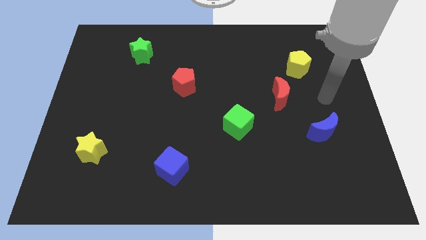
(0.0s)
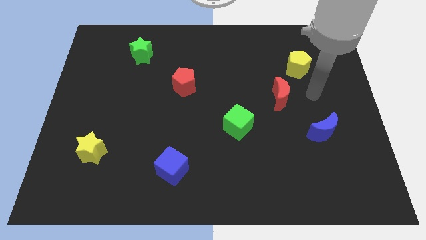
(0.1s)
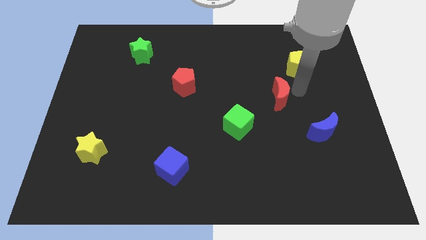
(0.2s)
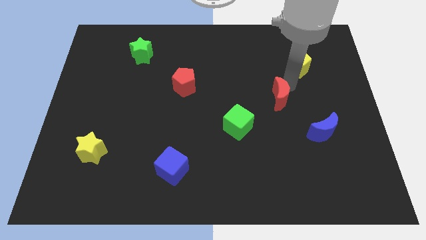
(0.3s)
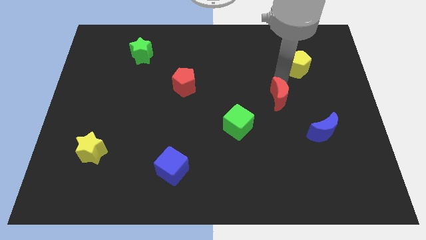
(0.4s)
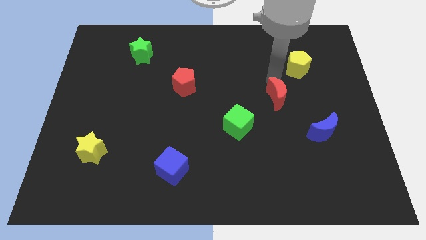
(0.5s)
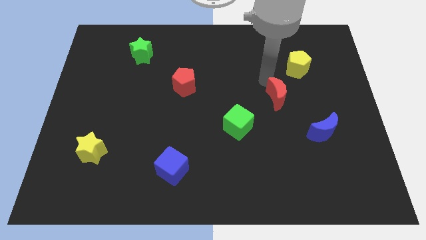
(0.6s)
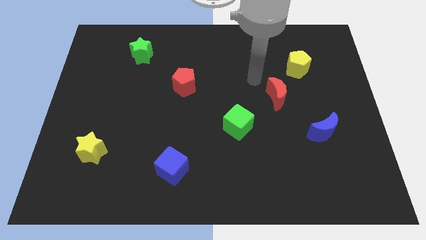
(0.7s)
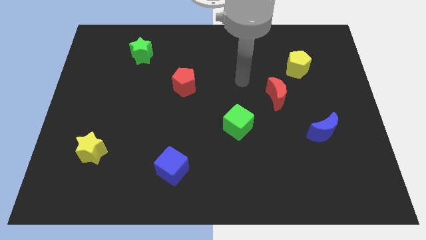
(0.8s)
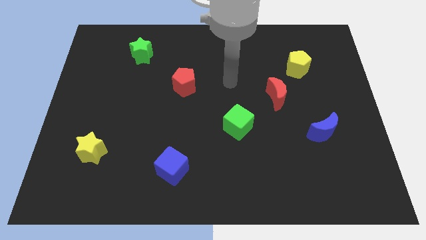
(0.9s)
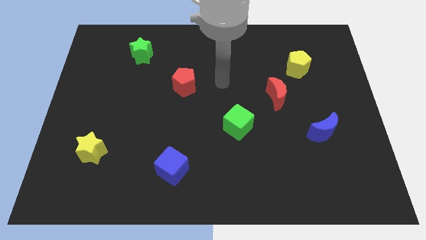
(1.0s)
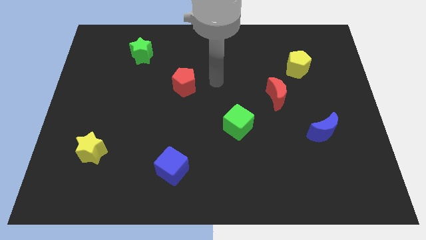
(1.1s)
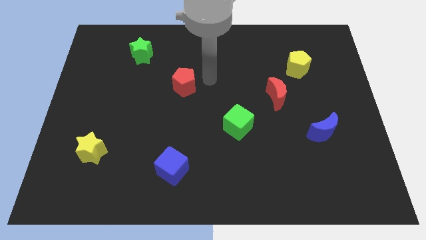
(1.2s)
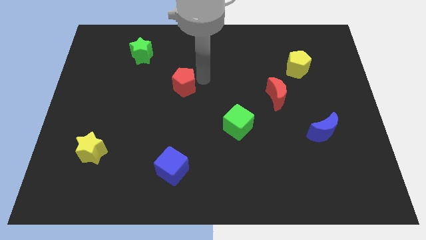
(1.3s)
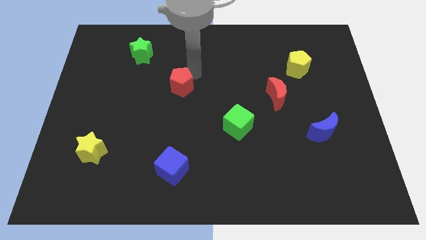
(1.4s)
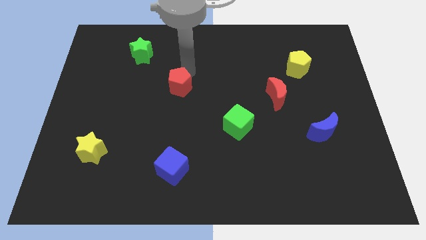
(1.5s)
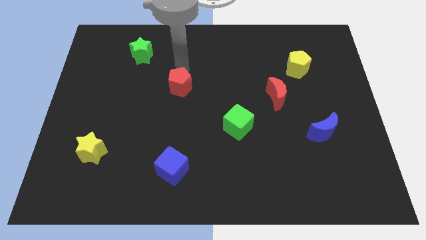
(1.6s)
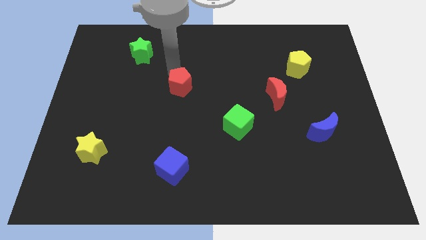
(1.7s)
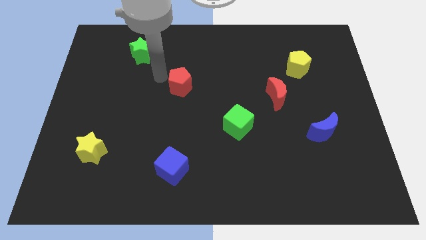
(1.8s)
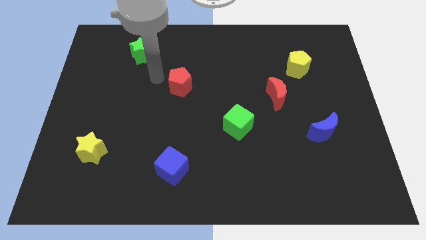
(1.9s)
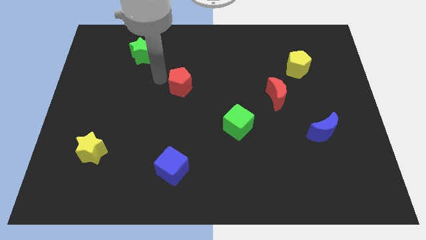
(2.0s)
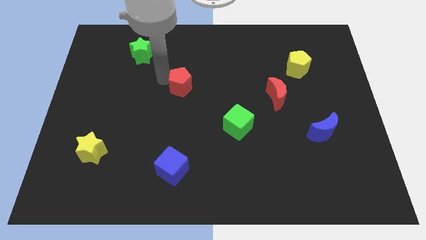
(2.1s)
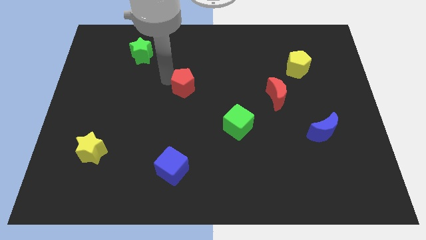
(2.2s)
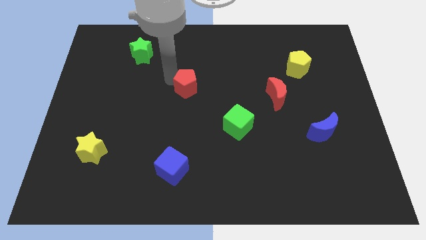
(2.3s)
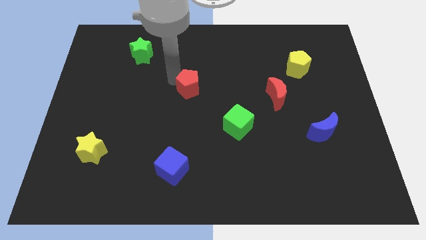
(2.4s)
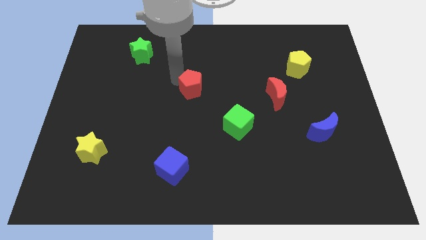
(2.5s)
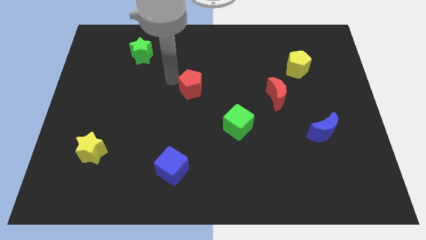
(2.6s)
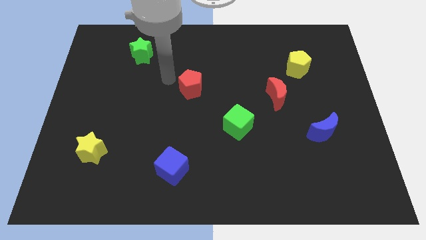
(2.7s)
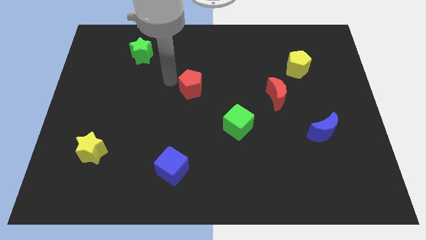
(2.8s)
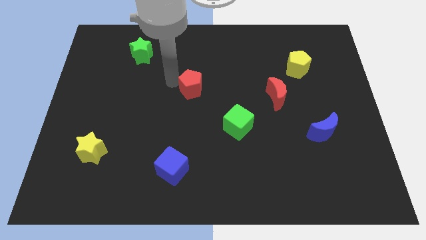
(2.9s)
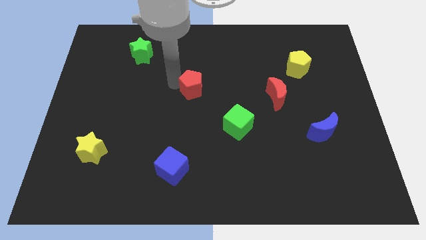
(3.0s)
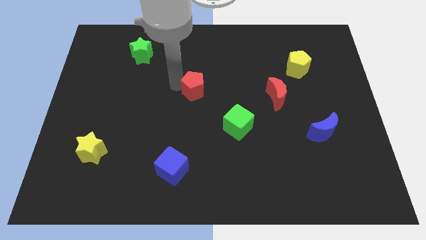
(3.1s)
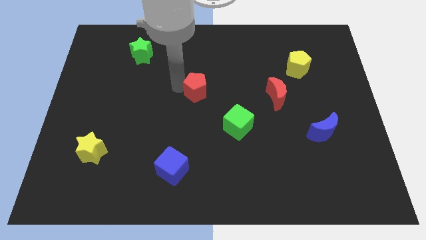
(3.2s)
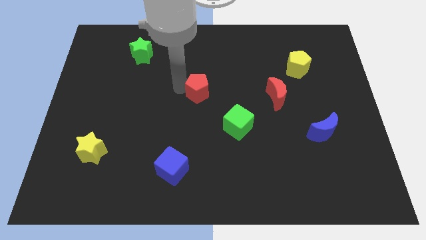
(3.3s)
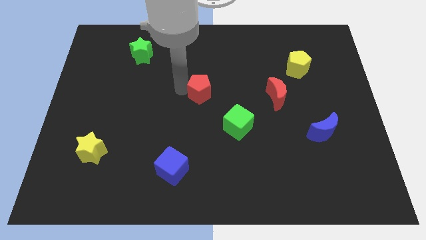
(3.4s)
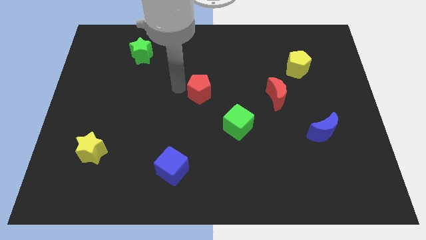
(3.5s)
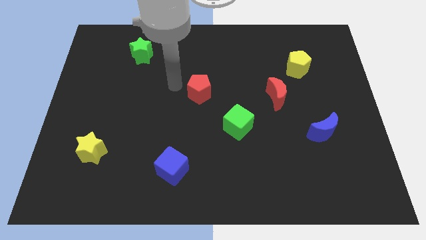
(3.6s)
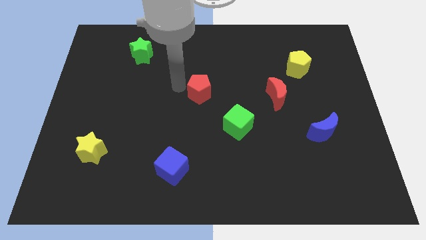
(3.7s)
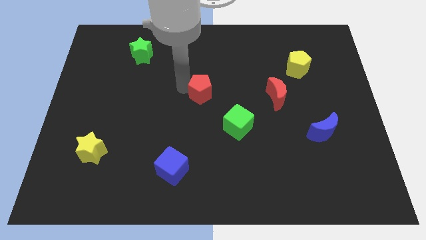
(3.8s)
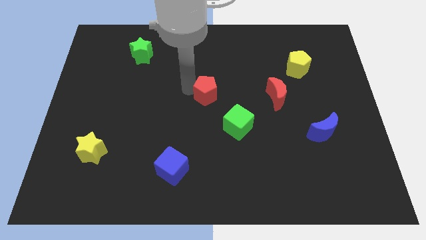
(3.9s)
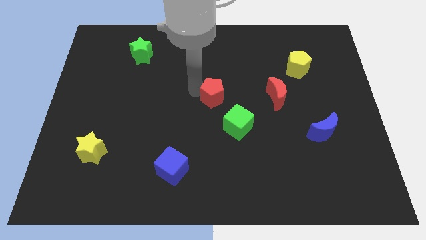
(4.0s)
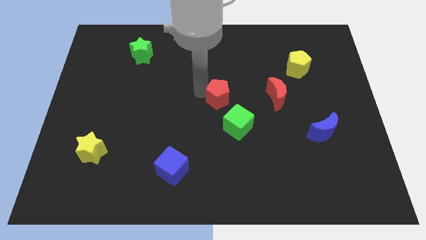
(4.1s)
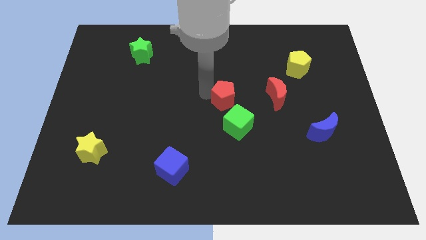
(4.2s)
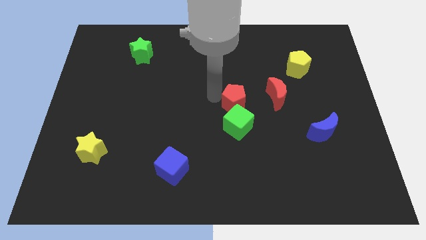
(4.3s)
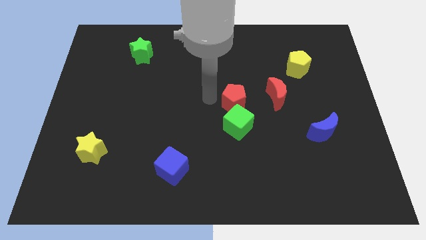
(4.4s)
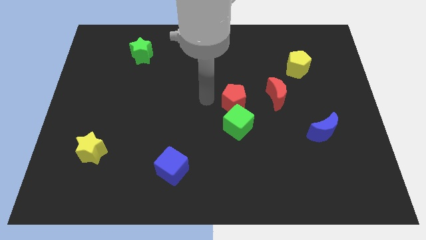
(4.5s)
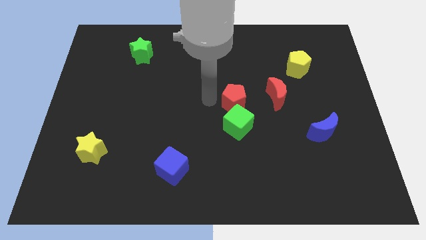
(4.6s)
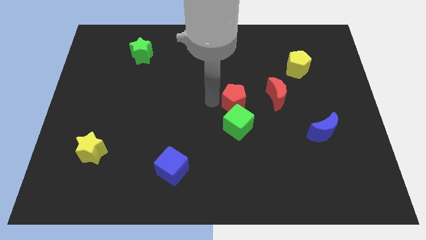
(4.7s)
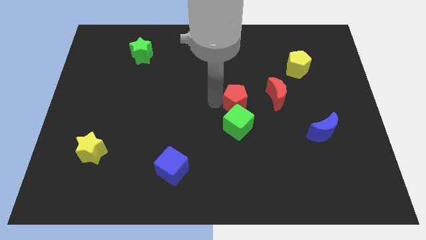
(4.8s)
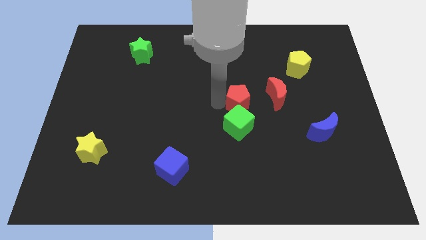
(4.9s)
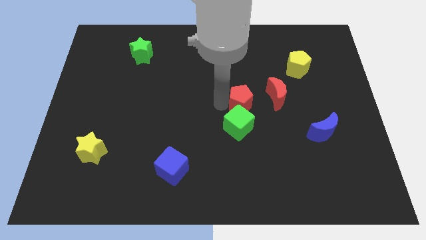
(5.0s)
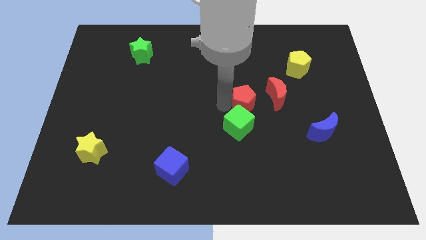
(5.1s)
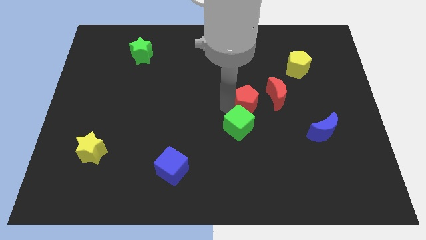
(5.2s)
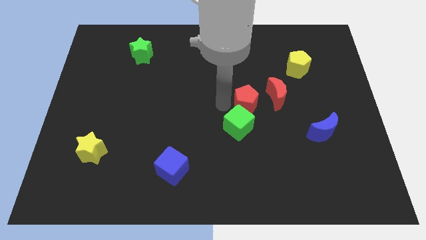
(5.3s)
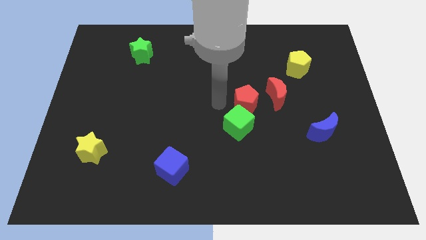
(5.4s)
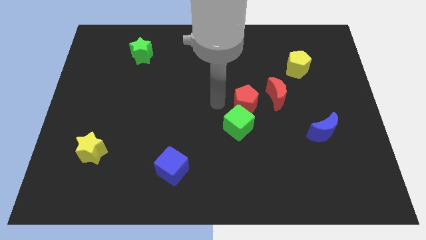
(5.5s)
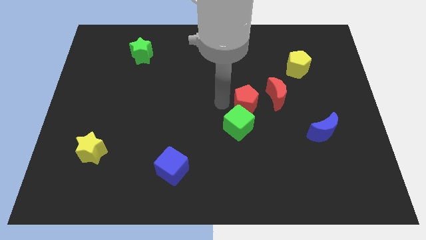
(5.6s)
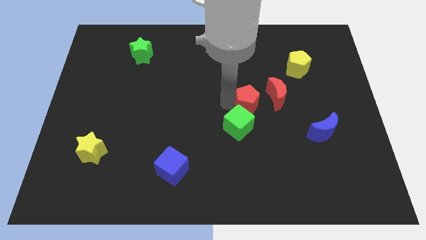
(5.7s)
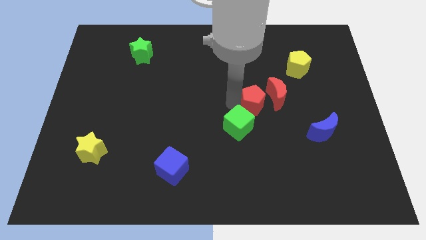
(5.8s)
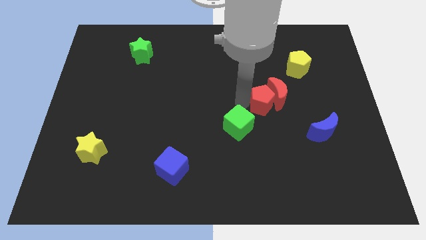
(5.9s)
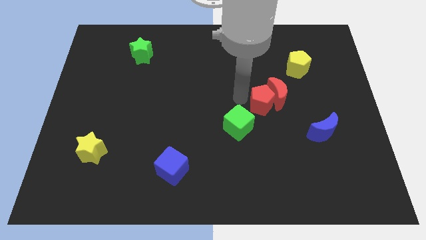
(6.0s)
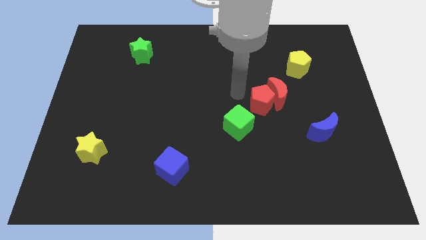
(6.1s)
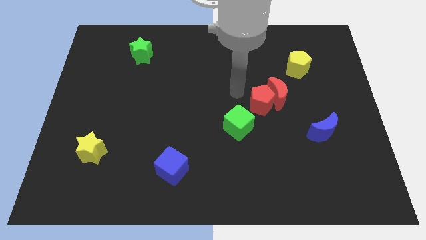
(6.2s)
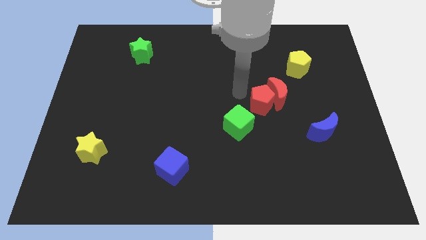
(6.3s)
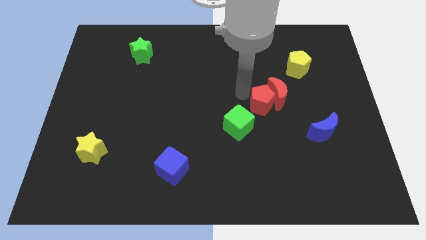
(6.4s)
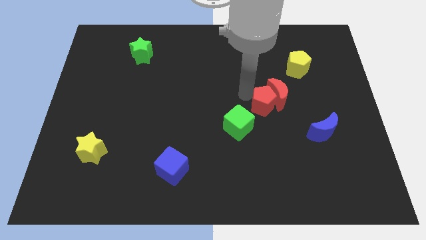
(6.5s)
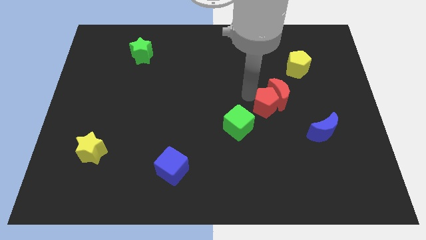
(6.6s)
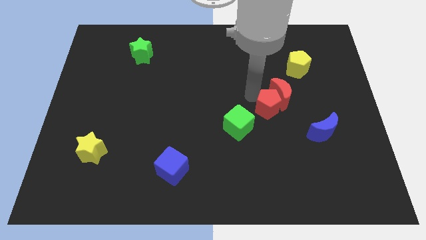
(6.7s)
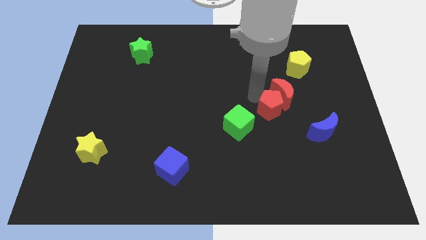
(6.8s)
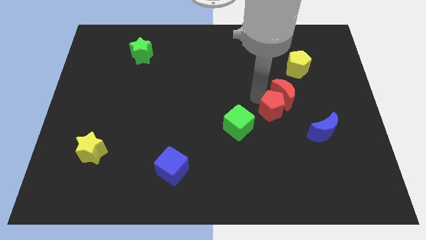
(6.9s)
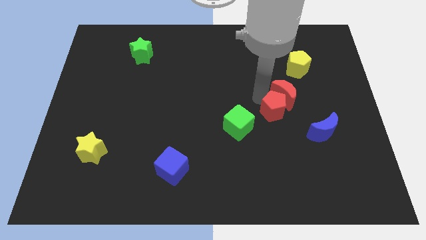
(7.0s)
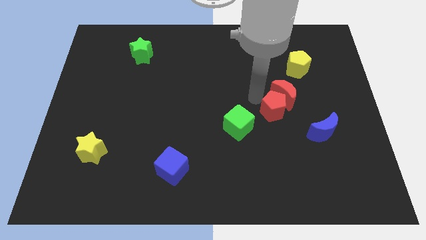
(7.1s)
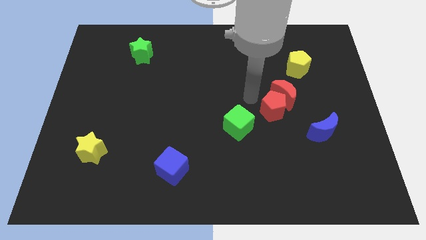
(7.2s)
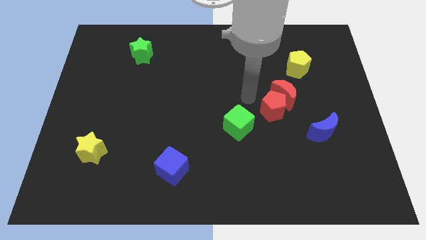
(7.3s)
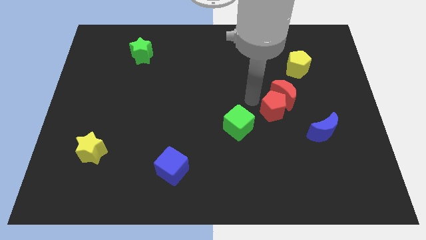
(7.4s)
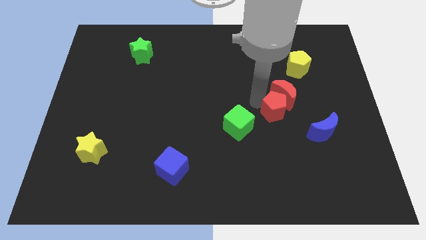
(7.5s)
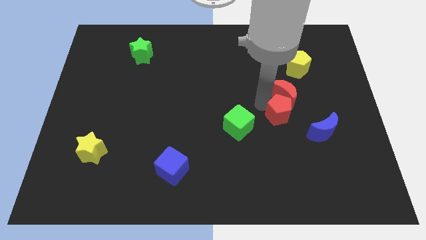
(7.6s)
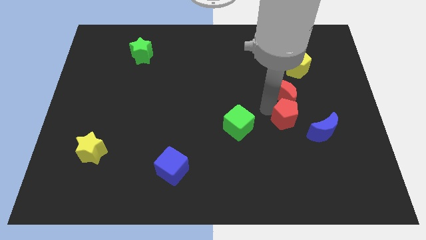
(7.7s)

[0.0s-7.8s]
push the red pentagon to the bottom right side of the red moon
